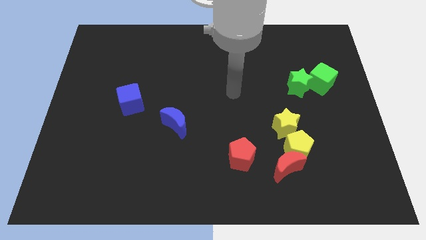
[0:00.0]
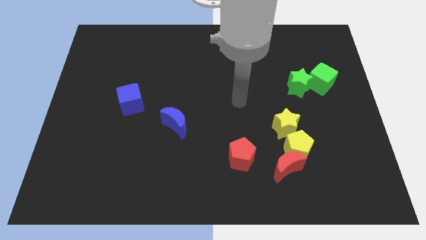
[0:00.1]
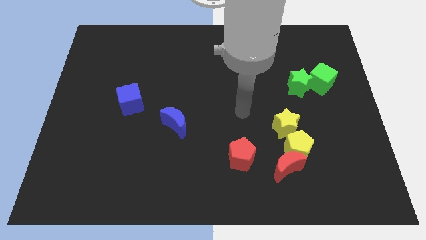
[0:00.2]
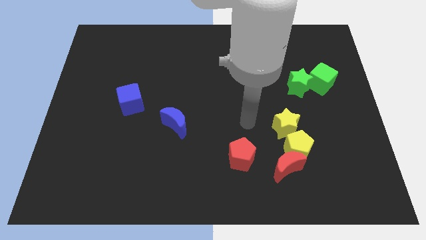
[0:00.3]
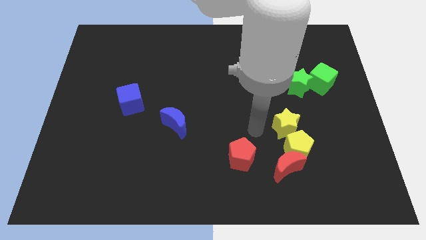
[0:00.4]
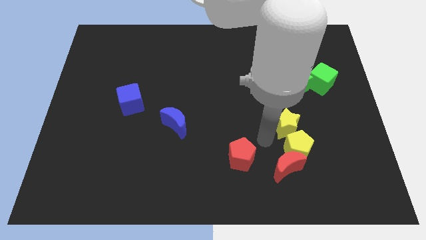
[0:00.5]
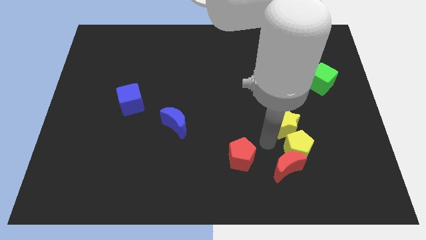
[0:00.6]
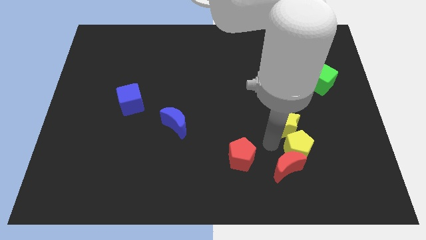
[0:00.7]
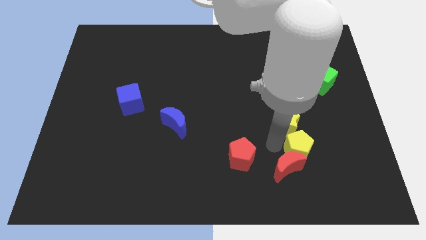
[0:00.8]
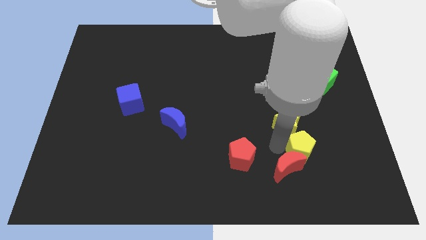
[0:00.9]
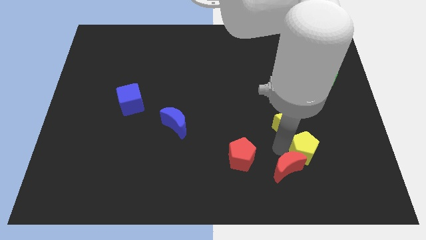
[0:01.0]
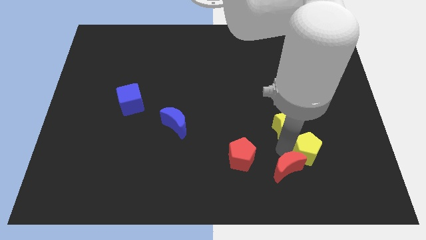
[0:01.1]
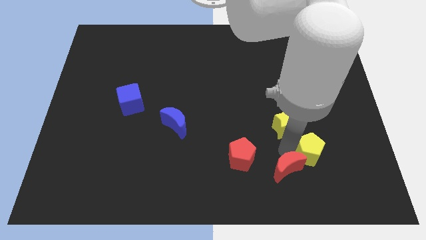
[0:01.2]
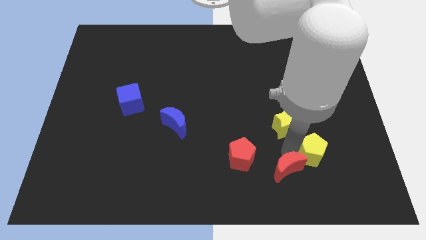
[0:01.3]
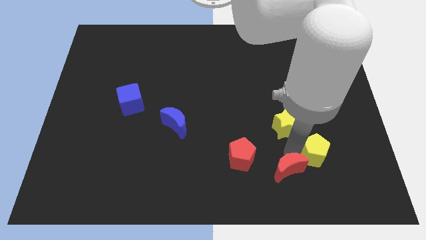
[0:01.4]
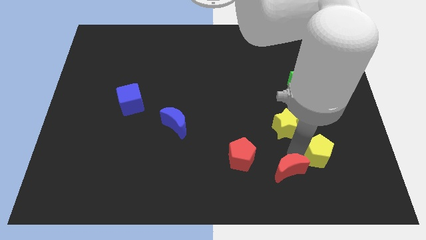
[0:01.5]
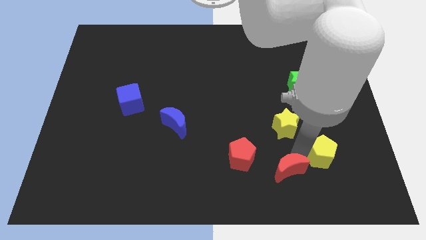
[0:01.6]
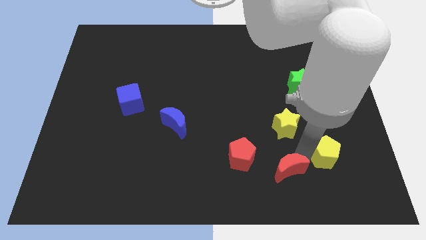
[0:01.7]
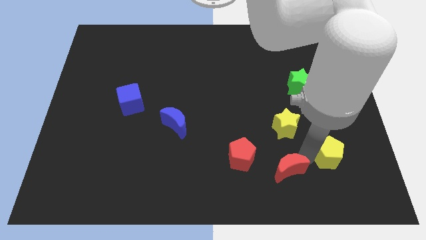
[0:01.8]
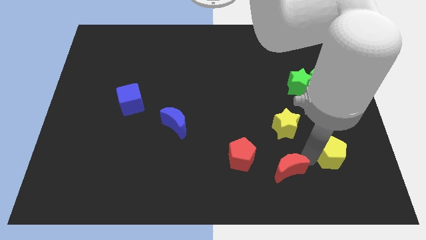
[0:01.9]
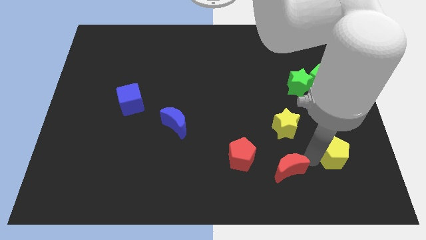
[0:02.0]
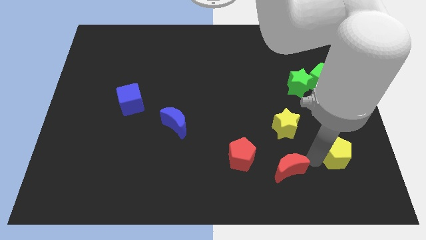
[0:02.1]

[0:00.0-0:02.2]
move the yellow pentagon away from the red moon and yellow star

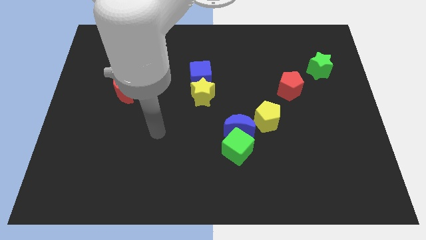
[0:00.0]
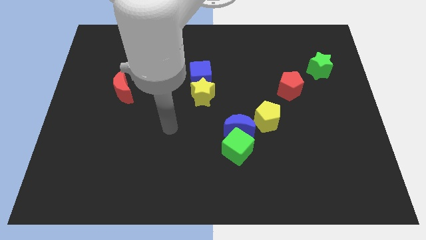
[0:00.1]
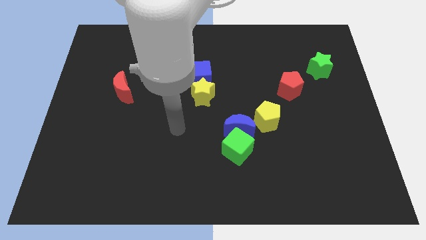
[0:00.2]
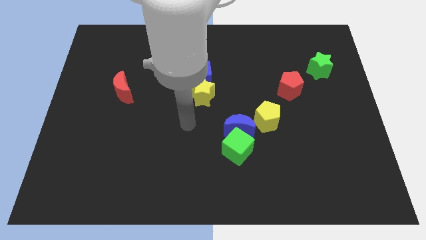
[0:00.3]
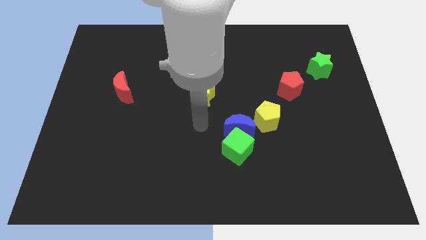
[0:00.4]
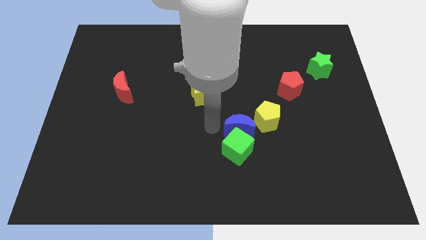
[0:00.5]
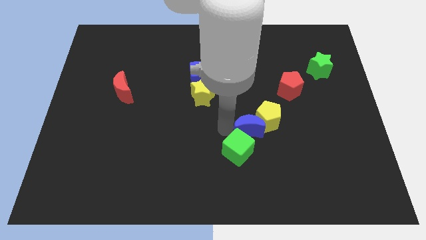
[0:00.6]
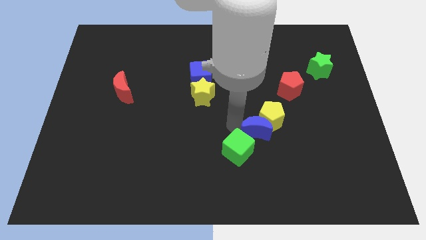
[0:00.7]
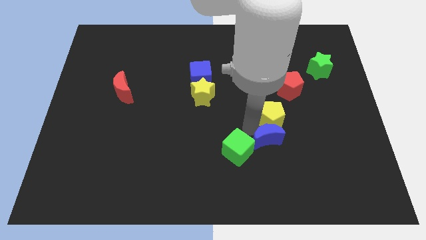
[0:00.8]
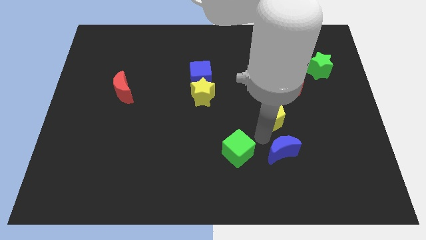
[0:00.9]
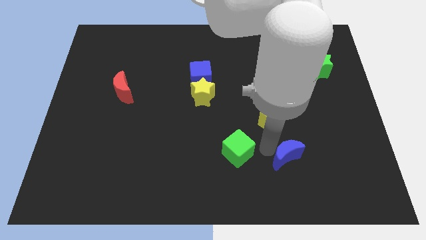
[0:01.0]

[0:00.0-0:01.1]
separate the green cube from the blue moon

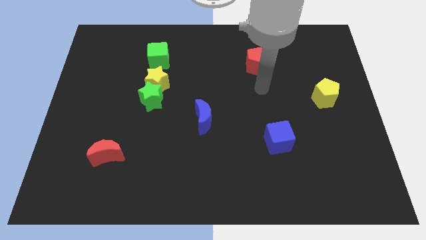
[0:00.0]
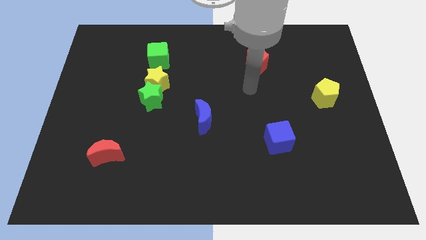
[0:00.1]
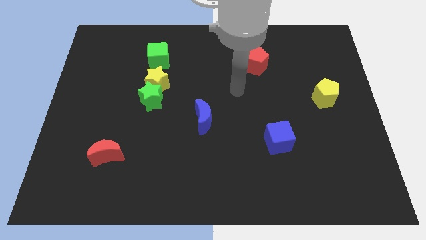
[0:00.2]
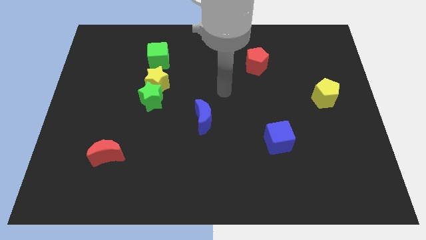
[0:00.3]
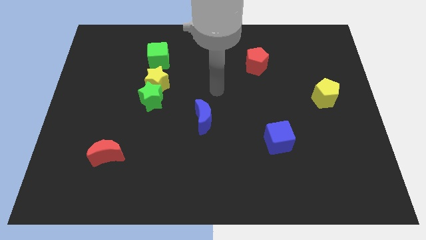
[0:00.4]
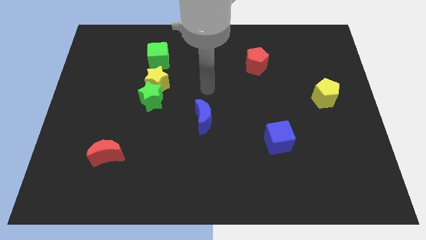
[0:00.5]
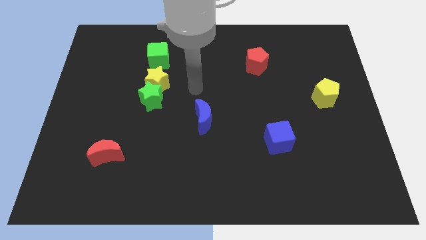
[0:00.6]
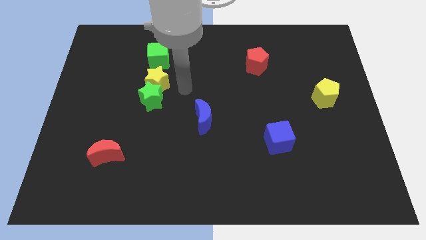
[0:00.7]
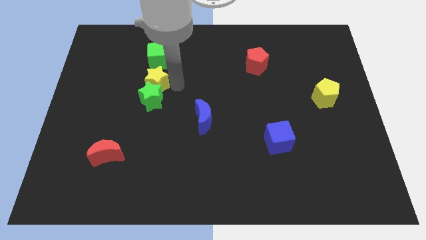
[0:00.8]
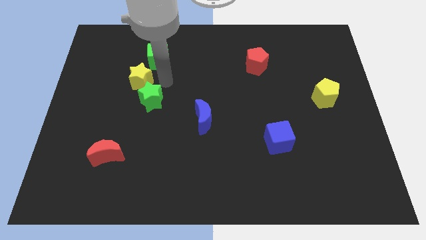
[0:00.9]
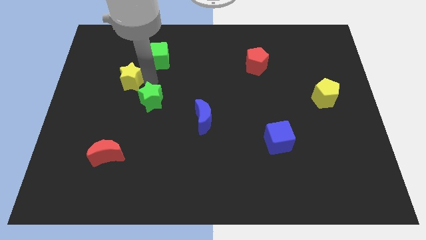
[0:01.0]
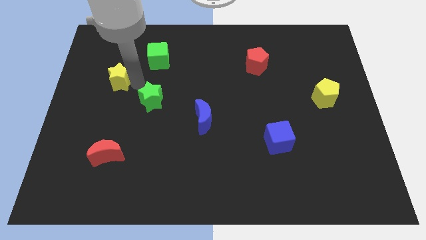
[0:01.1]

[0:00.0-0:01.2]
separate the green star from the yellow star

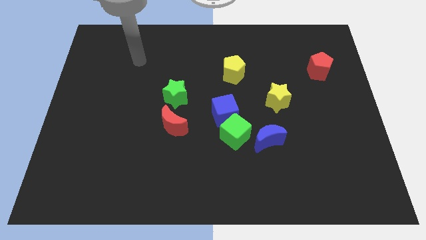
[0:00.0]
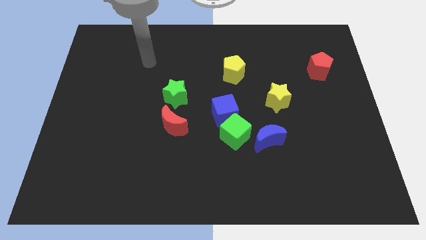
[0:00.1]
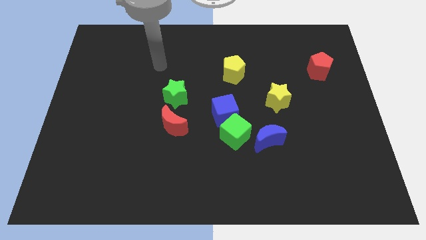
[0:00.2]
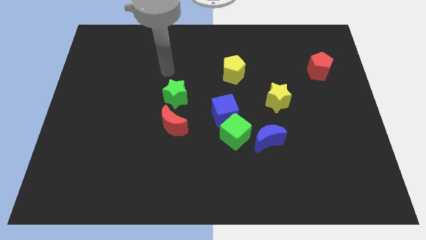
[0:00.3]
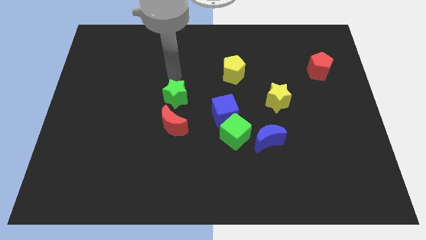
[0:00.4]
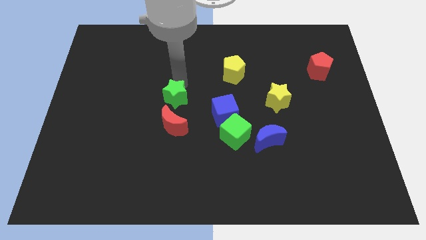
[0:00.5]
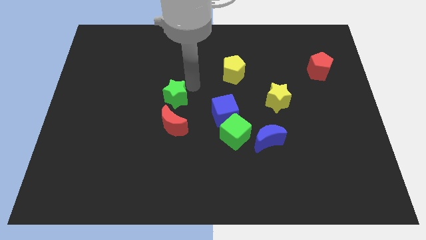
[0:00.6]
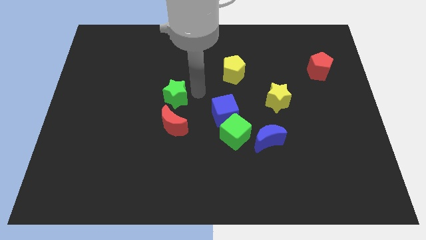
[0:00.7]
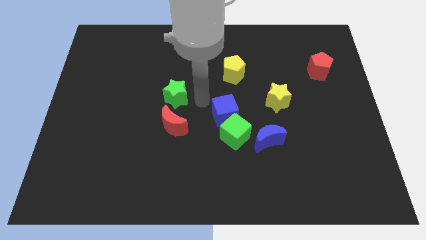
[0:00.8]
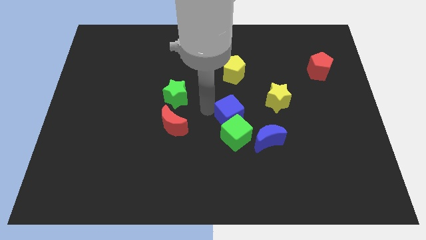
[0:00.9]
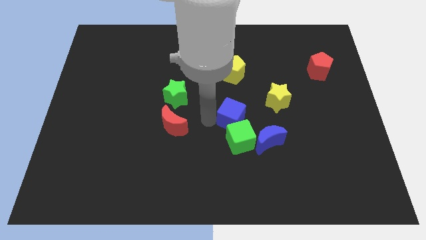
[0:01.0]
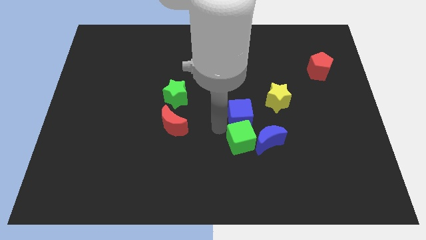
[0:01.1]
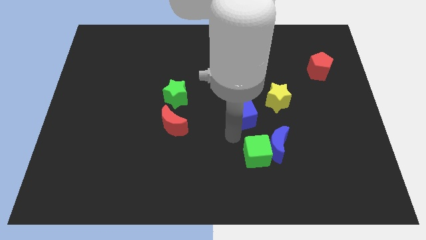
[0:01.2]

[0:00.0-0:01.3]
separate the blue cube from the green cube

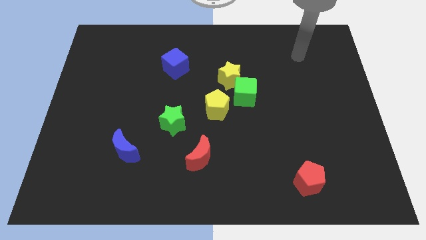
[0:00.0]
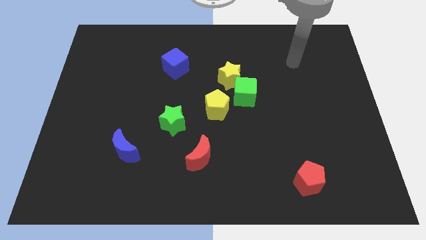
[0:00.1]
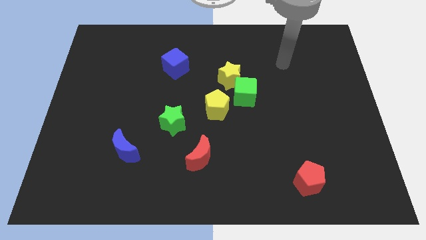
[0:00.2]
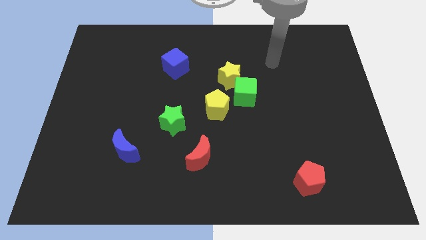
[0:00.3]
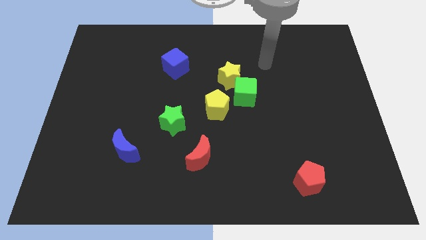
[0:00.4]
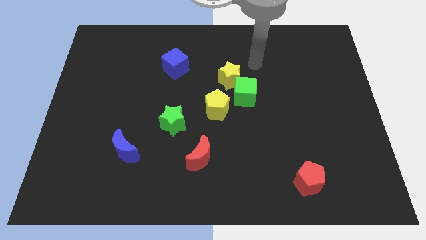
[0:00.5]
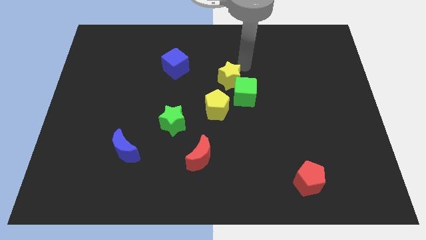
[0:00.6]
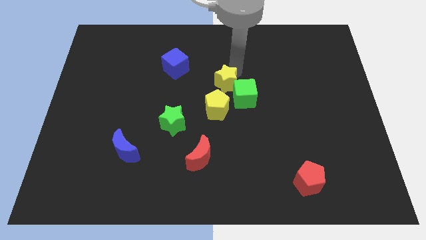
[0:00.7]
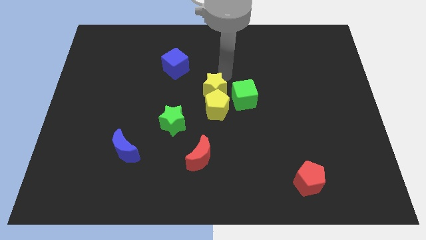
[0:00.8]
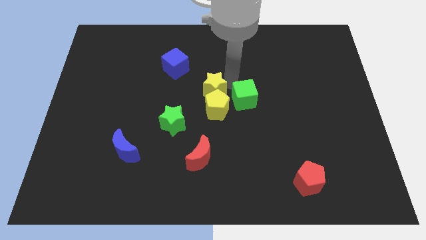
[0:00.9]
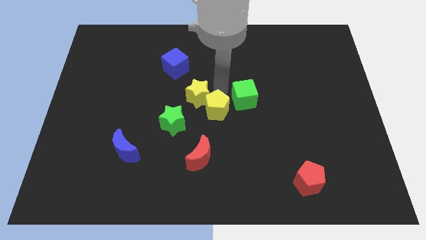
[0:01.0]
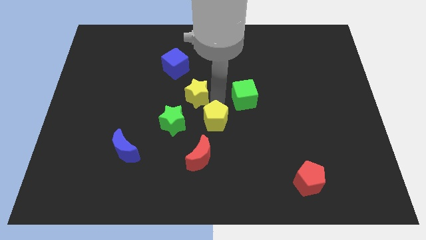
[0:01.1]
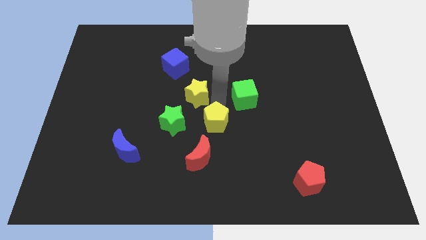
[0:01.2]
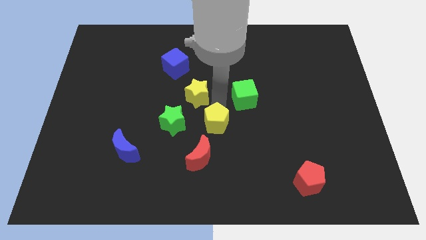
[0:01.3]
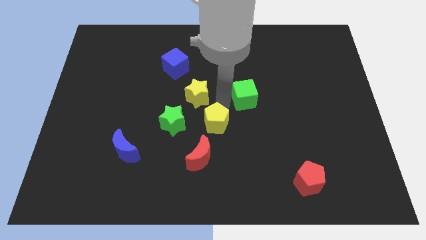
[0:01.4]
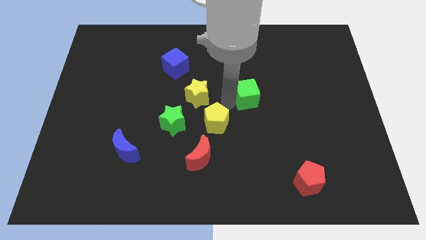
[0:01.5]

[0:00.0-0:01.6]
separate the green cube from the yellow star and yellow pentagon

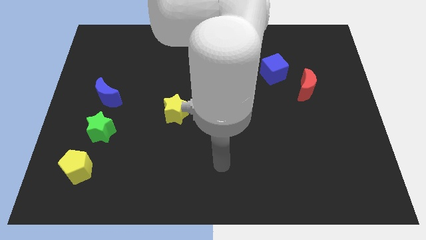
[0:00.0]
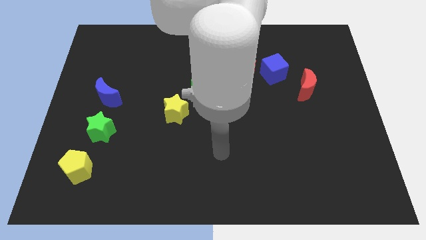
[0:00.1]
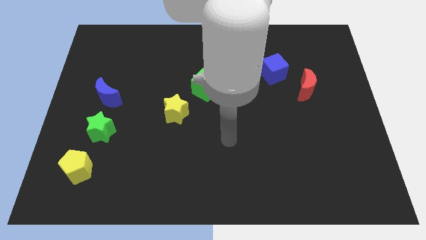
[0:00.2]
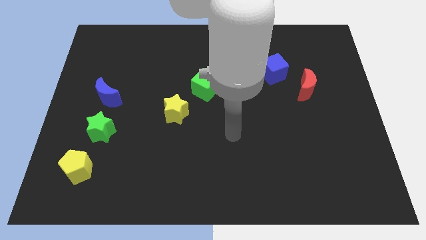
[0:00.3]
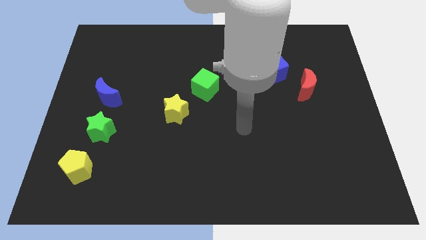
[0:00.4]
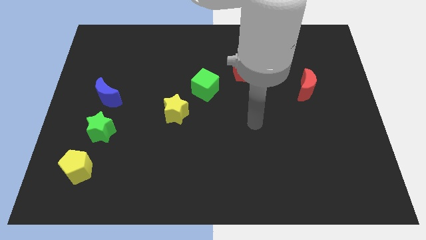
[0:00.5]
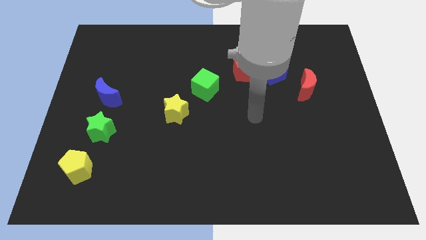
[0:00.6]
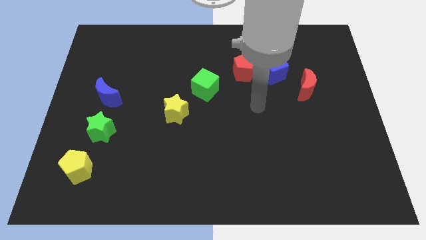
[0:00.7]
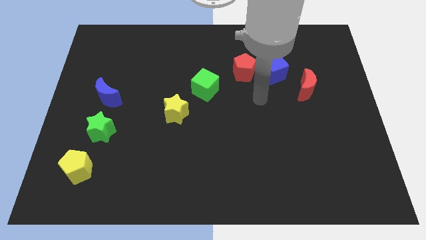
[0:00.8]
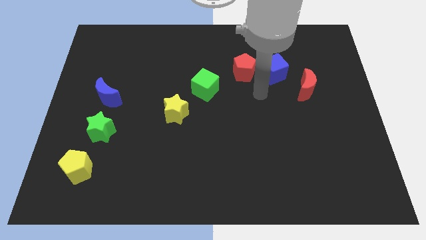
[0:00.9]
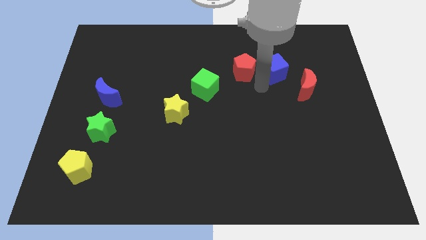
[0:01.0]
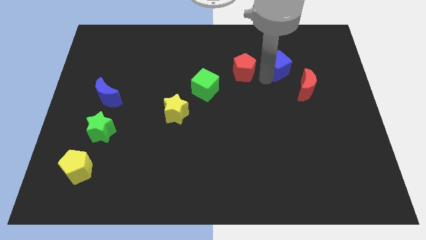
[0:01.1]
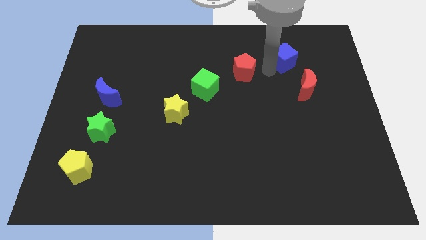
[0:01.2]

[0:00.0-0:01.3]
pull the red pentagon apart from the blue cube

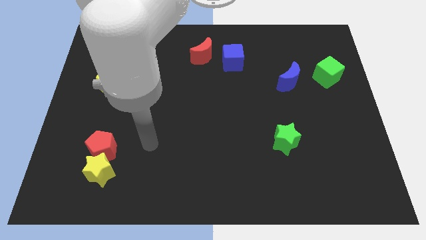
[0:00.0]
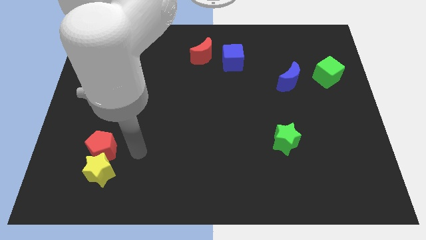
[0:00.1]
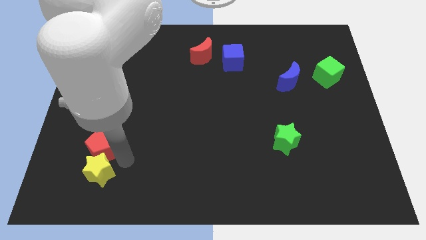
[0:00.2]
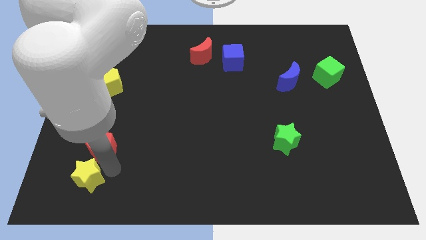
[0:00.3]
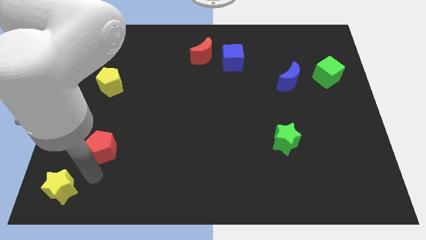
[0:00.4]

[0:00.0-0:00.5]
pull the red pentagon apart from the yellow star
